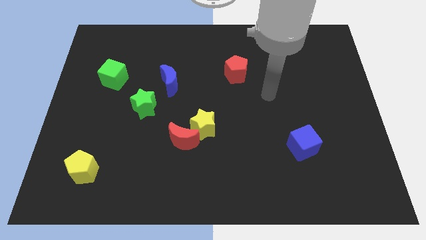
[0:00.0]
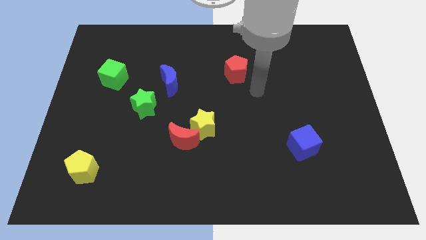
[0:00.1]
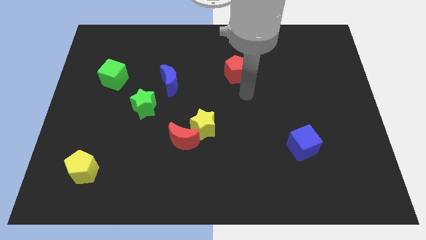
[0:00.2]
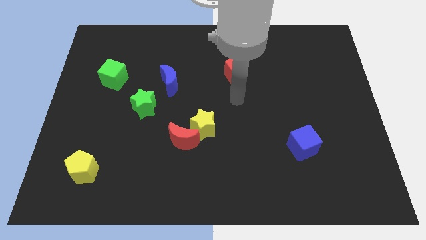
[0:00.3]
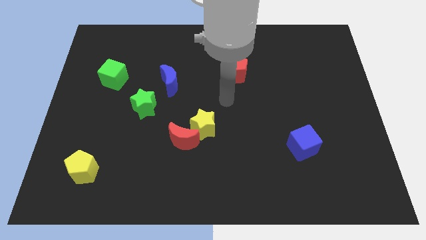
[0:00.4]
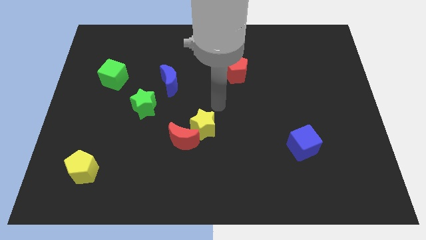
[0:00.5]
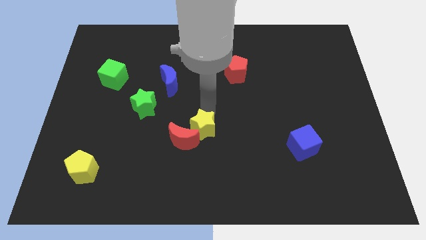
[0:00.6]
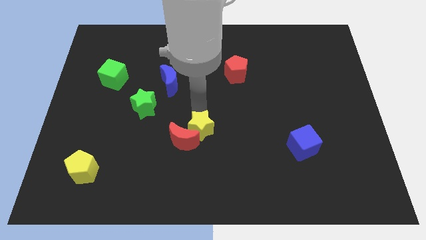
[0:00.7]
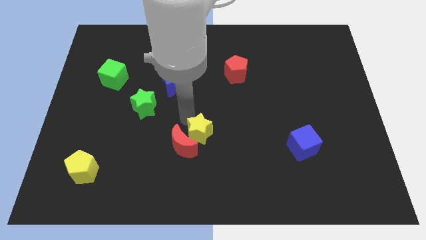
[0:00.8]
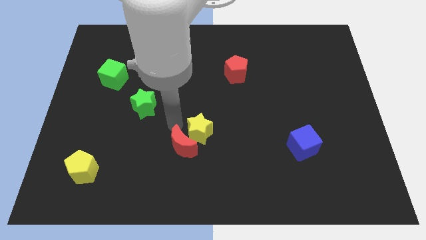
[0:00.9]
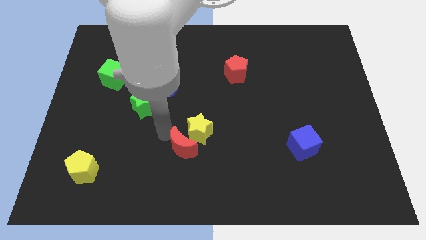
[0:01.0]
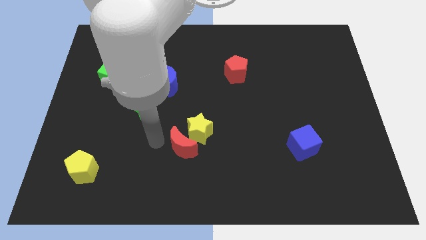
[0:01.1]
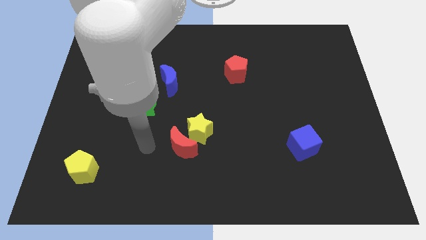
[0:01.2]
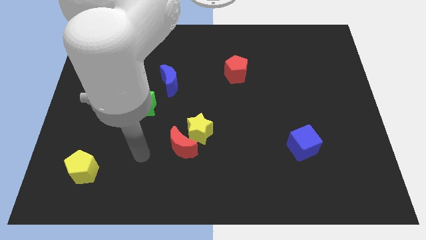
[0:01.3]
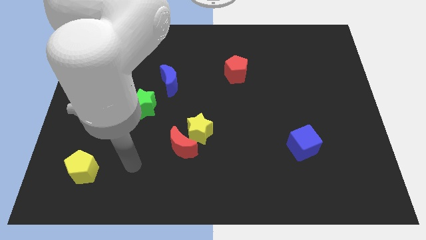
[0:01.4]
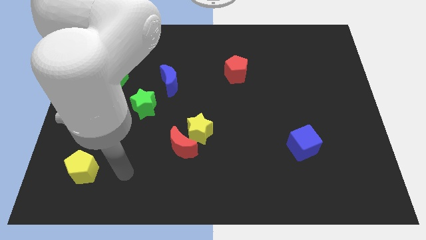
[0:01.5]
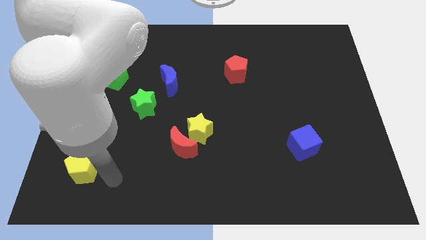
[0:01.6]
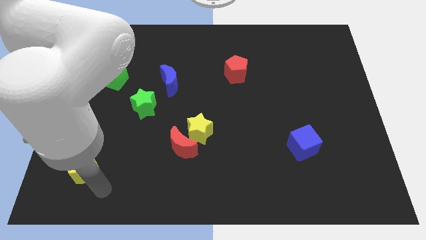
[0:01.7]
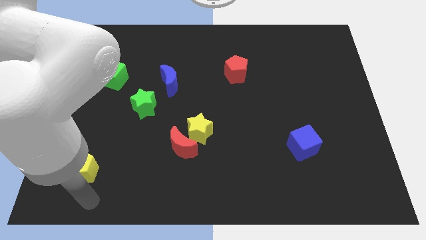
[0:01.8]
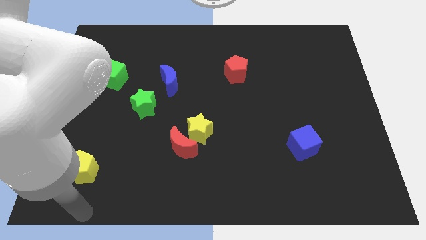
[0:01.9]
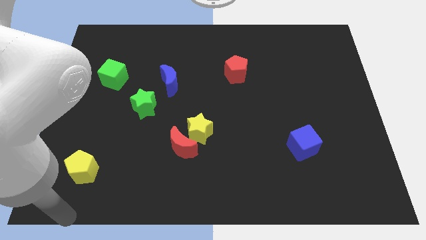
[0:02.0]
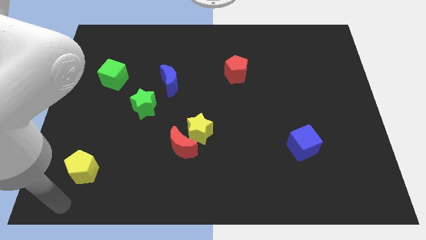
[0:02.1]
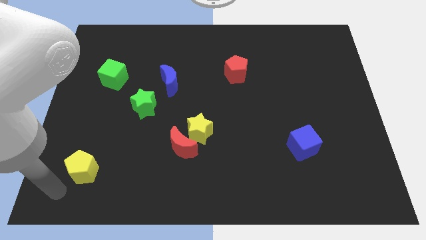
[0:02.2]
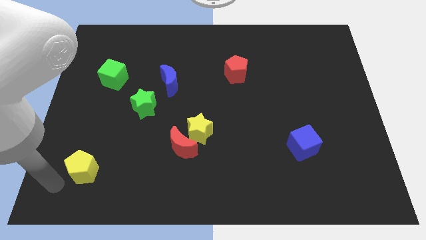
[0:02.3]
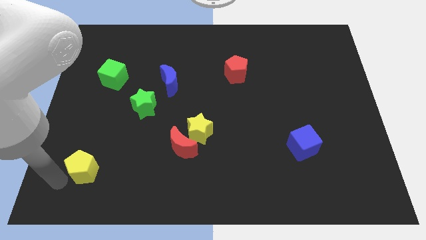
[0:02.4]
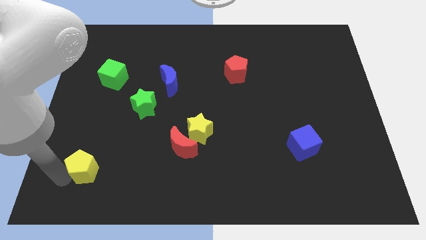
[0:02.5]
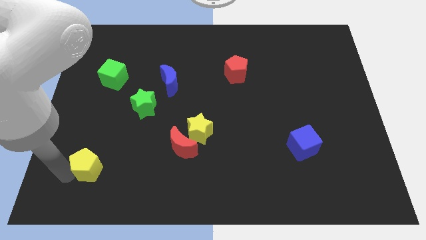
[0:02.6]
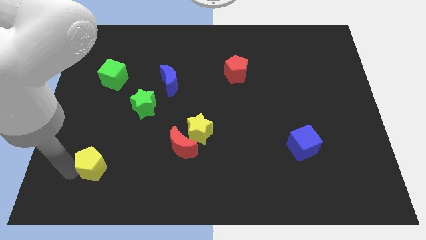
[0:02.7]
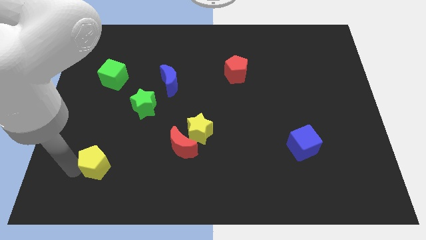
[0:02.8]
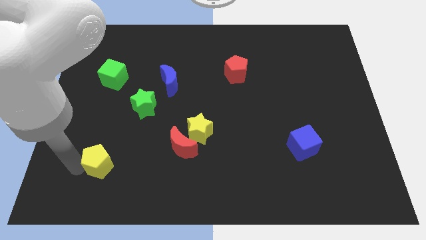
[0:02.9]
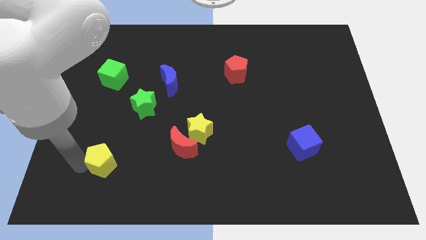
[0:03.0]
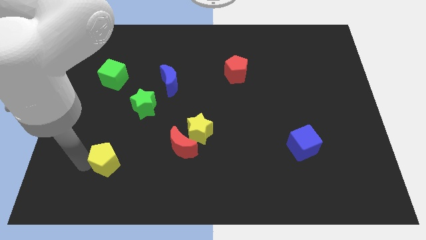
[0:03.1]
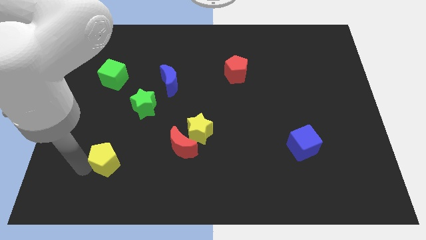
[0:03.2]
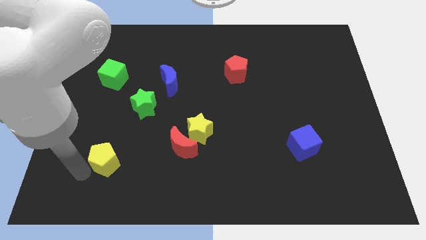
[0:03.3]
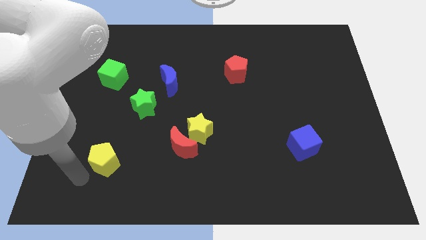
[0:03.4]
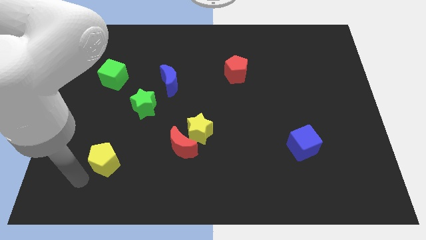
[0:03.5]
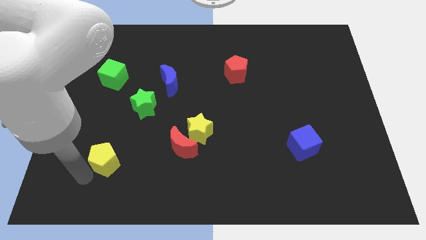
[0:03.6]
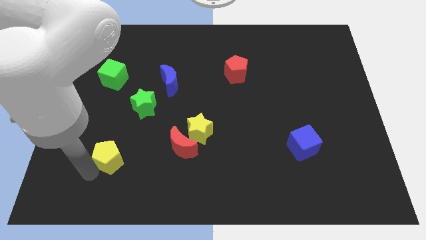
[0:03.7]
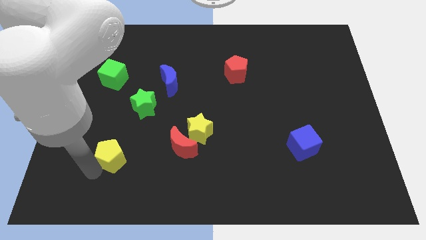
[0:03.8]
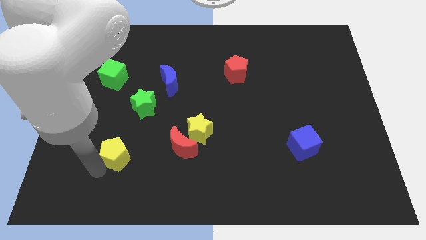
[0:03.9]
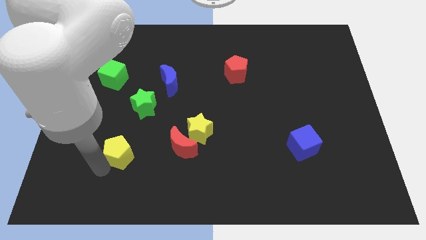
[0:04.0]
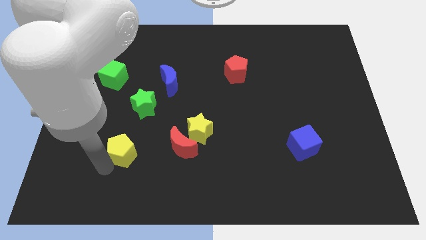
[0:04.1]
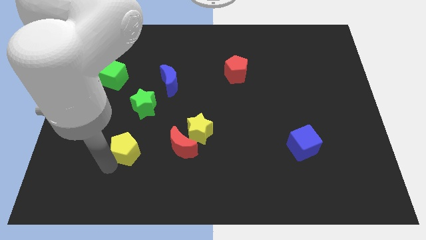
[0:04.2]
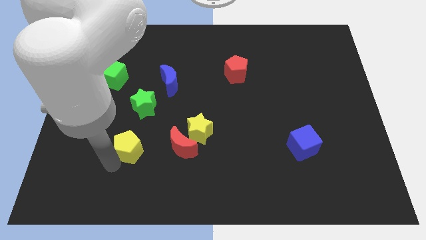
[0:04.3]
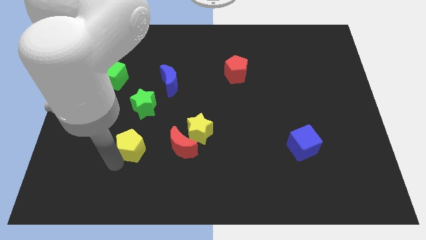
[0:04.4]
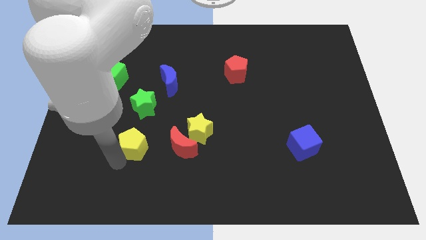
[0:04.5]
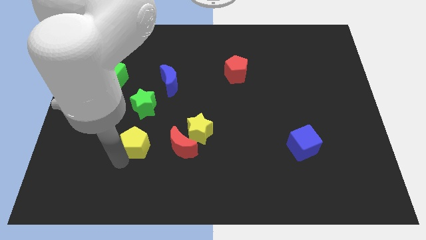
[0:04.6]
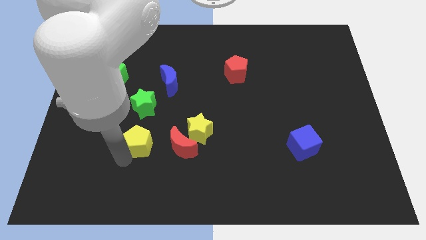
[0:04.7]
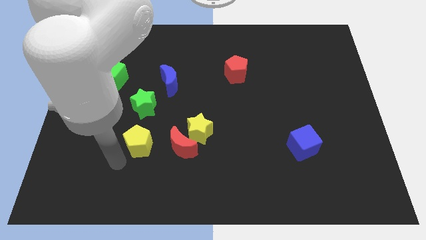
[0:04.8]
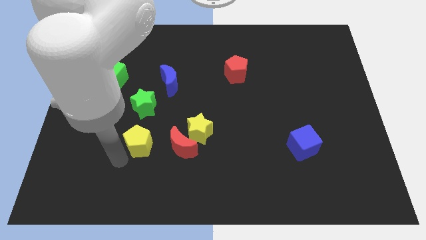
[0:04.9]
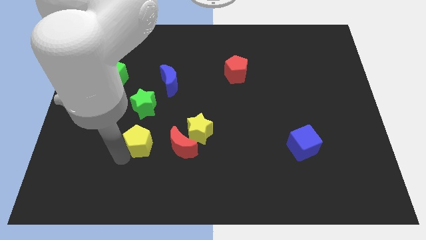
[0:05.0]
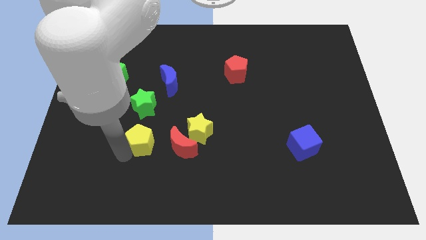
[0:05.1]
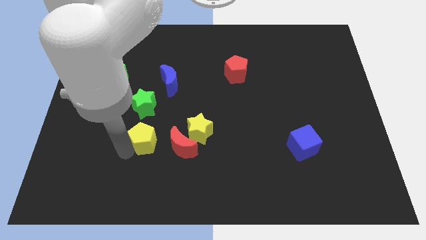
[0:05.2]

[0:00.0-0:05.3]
put the yellow pentagon to the top left side of the red moon

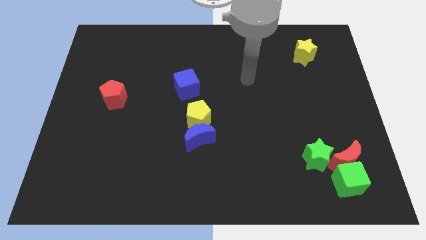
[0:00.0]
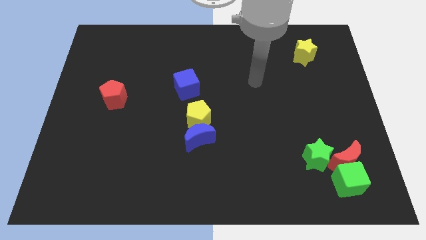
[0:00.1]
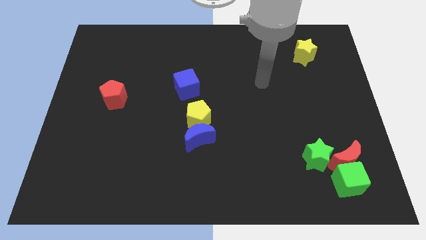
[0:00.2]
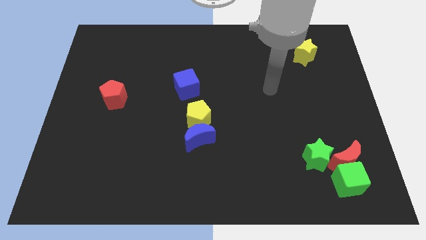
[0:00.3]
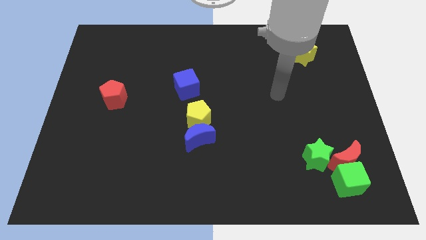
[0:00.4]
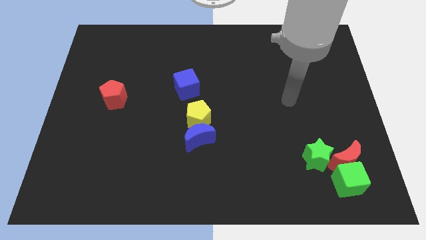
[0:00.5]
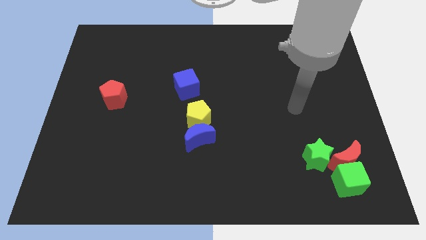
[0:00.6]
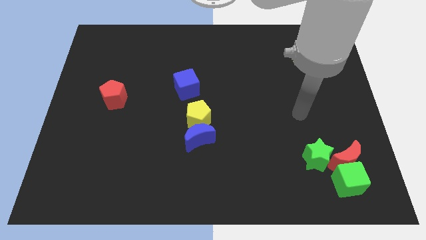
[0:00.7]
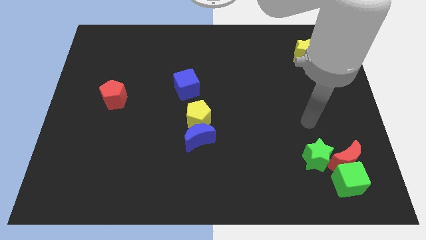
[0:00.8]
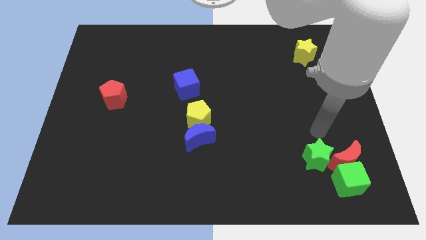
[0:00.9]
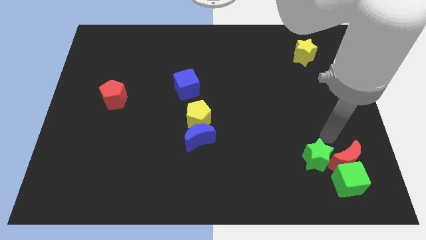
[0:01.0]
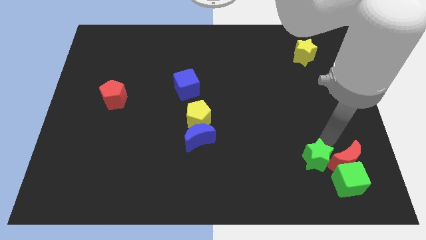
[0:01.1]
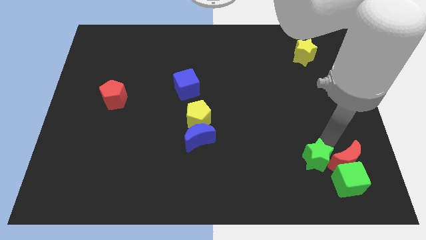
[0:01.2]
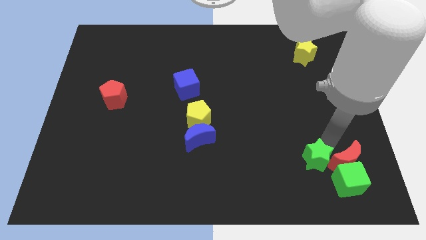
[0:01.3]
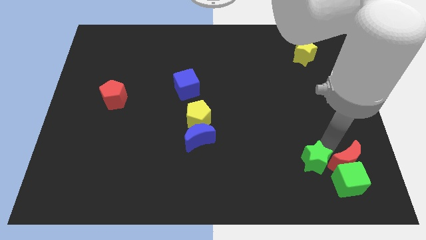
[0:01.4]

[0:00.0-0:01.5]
slide the green star just left of the green cube

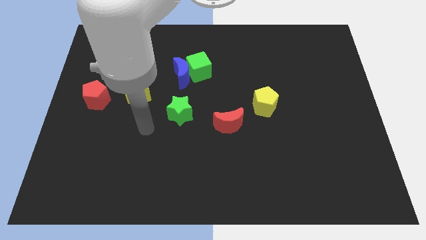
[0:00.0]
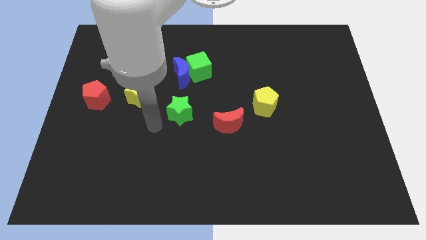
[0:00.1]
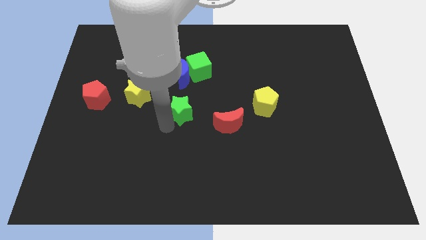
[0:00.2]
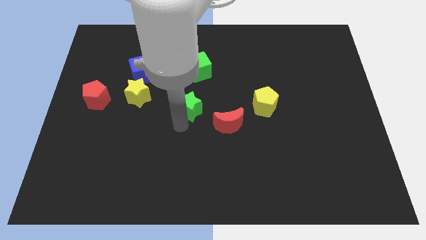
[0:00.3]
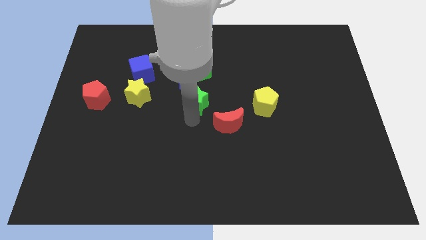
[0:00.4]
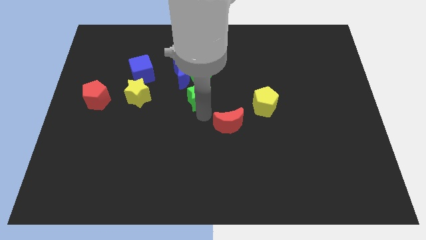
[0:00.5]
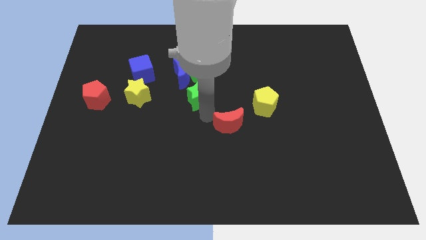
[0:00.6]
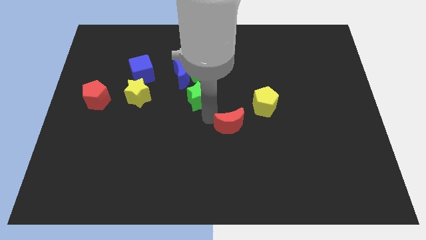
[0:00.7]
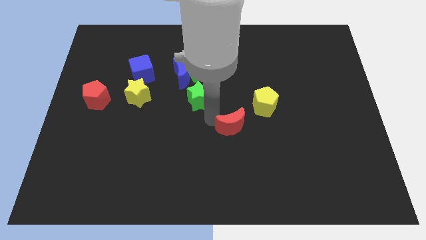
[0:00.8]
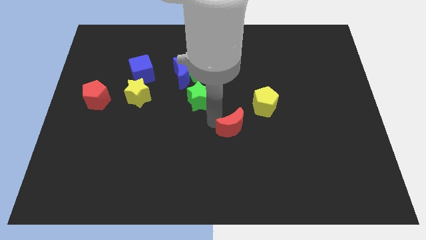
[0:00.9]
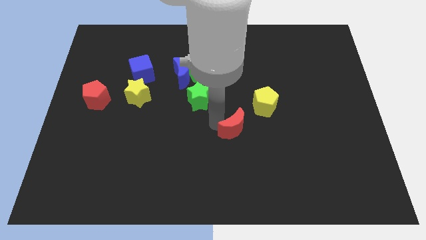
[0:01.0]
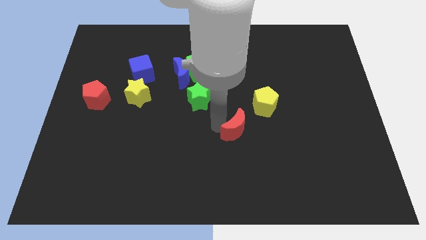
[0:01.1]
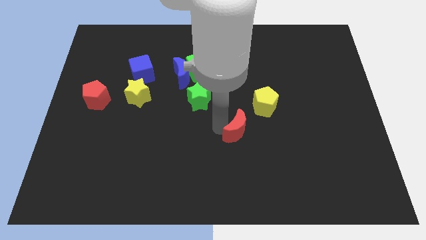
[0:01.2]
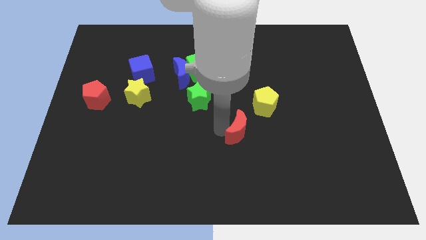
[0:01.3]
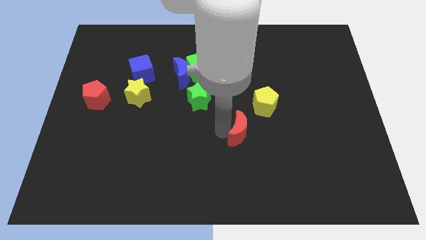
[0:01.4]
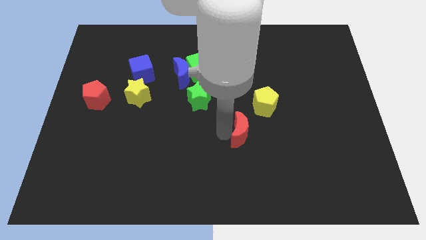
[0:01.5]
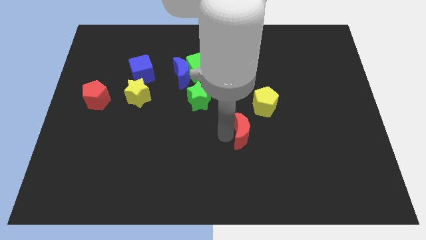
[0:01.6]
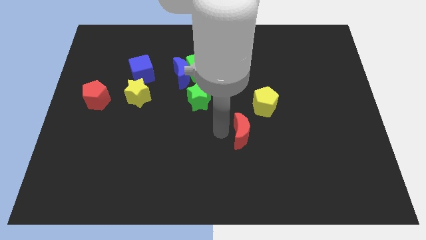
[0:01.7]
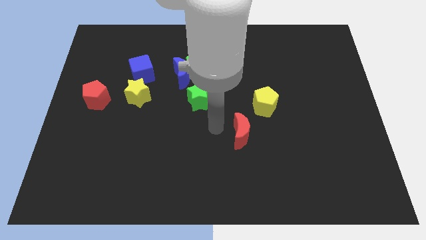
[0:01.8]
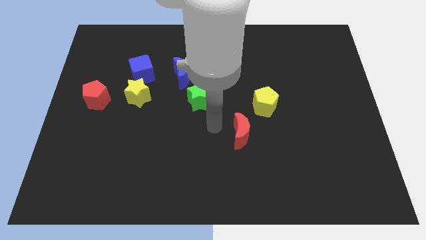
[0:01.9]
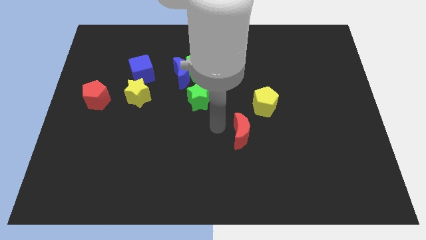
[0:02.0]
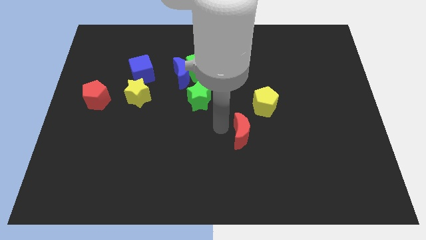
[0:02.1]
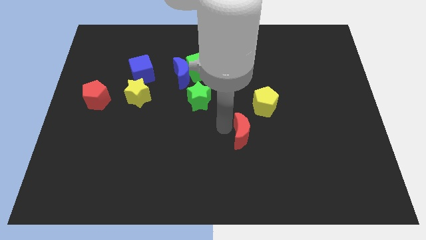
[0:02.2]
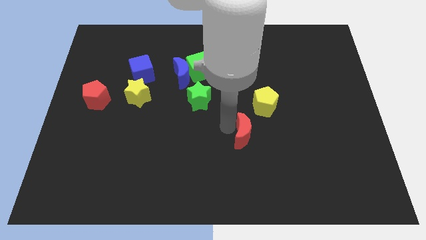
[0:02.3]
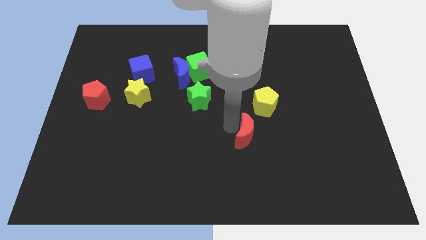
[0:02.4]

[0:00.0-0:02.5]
slide the red moon to the bottom side of the yellow pentagon
